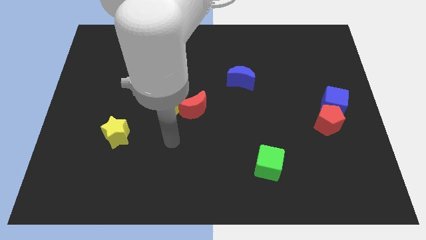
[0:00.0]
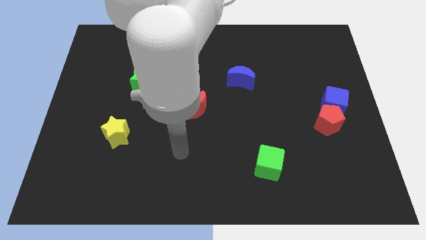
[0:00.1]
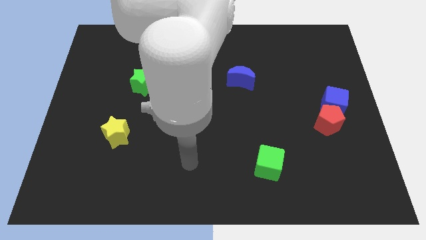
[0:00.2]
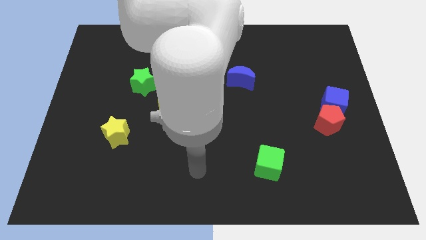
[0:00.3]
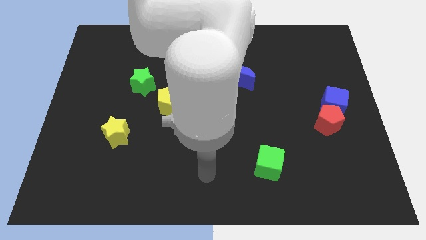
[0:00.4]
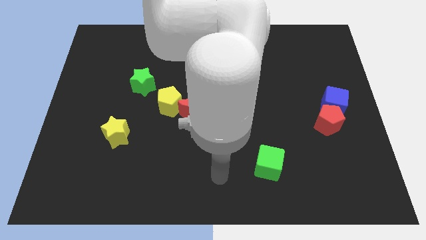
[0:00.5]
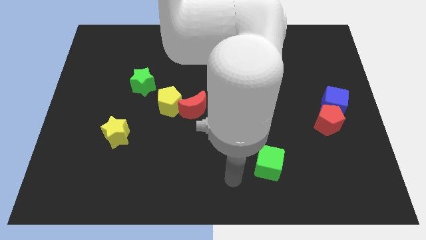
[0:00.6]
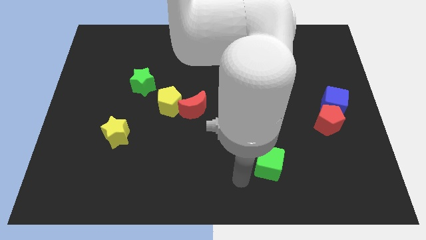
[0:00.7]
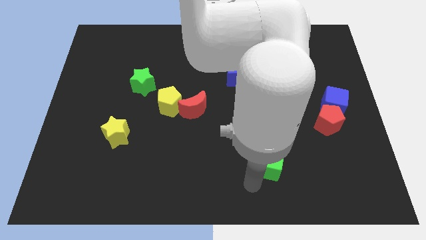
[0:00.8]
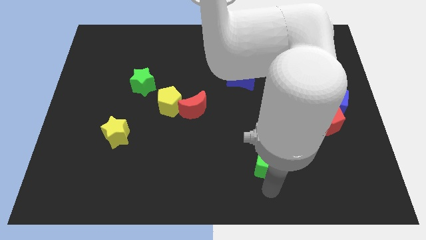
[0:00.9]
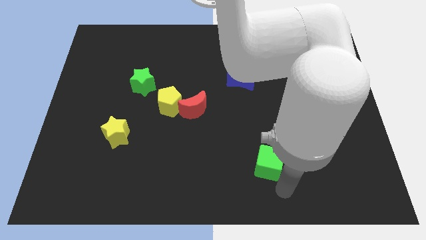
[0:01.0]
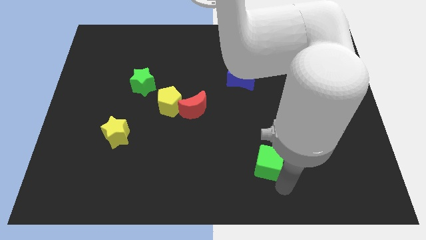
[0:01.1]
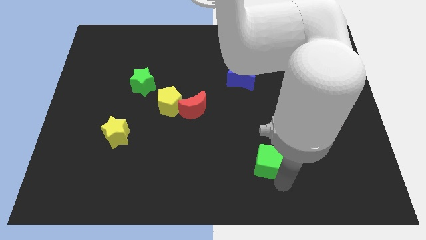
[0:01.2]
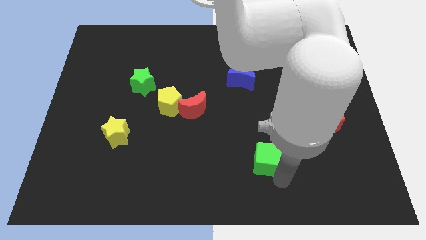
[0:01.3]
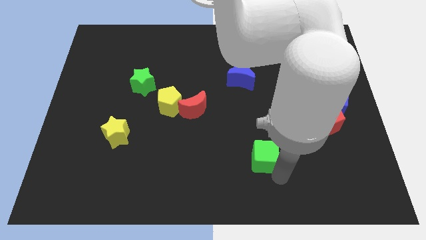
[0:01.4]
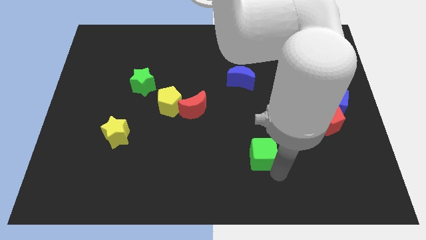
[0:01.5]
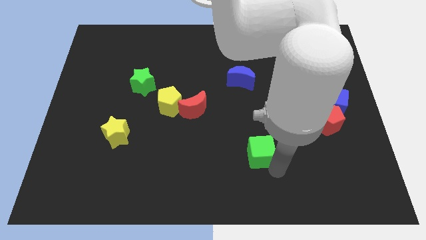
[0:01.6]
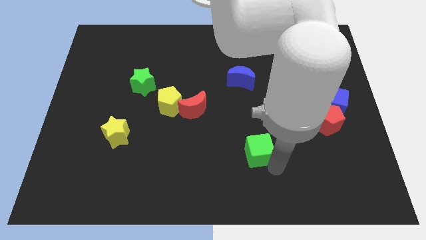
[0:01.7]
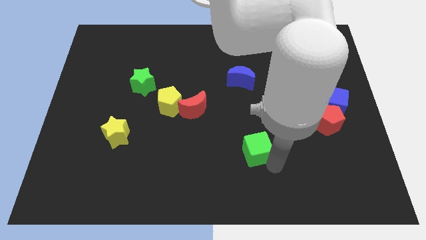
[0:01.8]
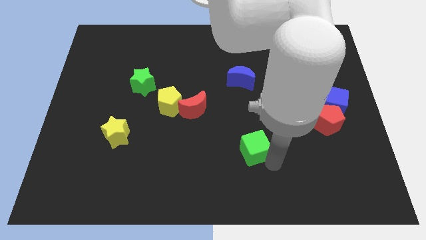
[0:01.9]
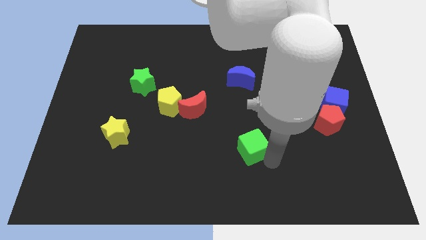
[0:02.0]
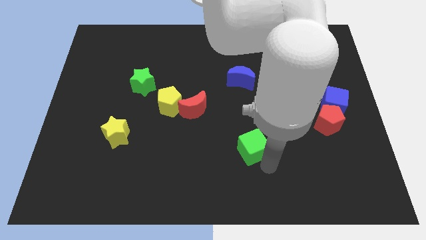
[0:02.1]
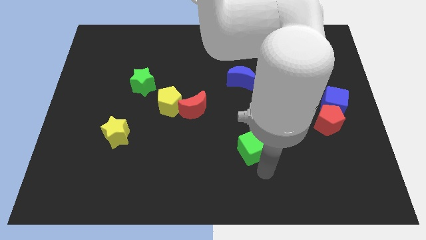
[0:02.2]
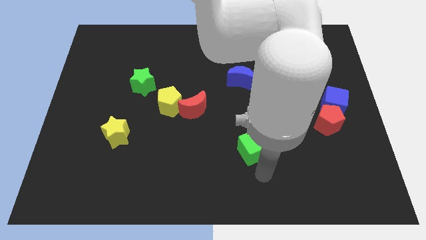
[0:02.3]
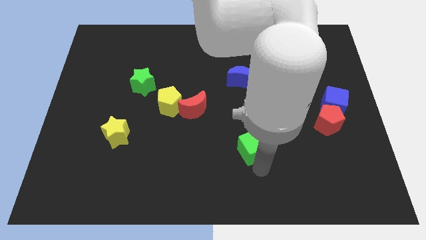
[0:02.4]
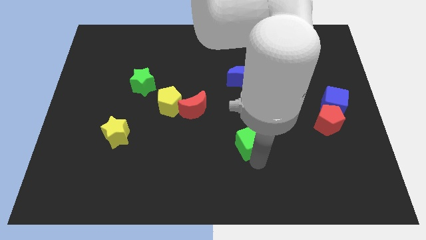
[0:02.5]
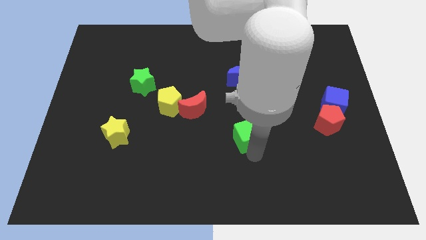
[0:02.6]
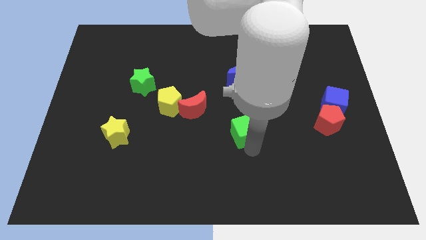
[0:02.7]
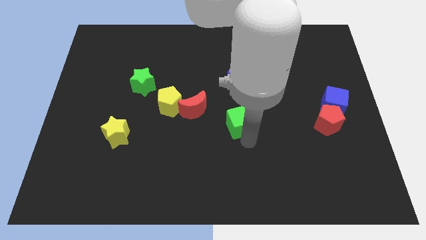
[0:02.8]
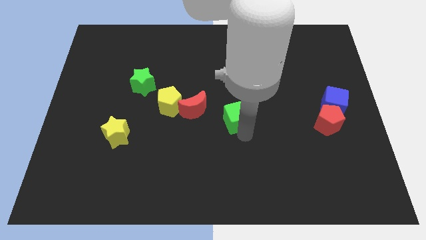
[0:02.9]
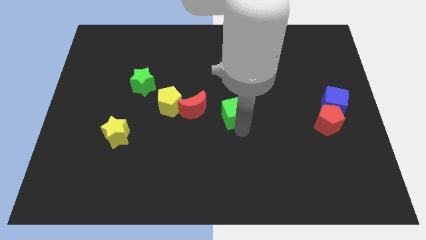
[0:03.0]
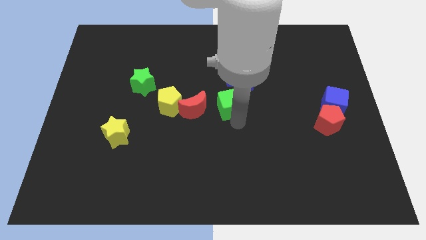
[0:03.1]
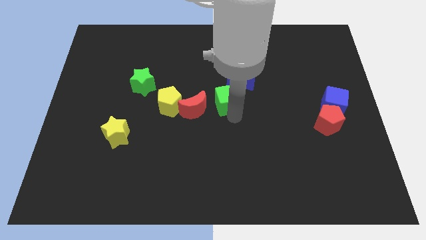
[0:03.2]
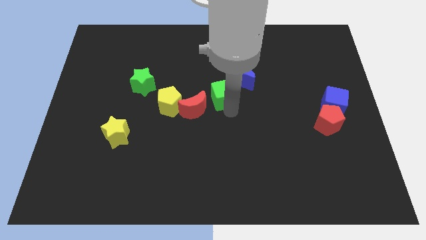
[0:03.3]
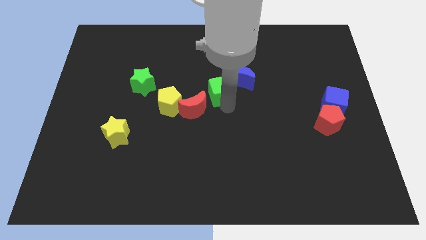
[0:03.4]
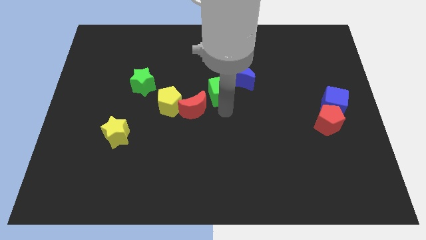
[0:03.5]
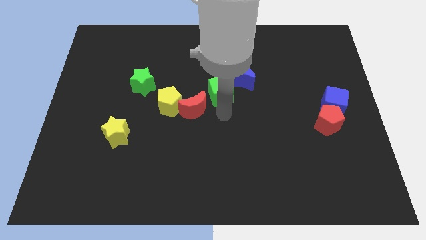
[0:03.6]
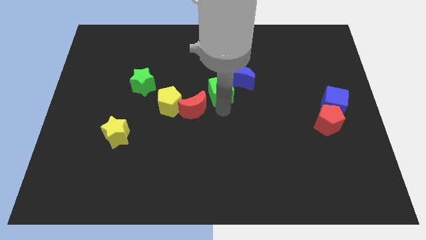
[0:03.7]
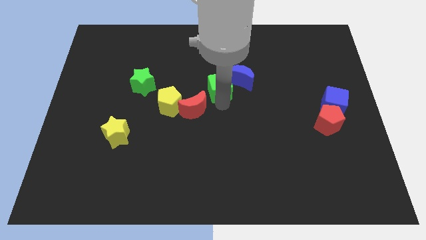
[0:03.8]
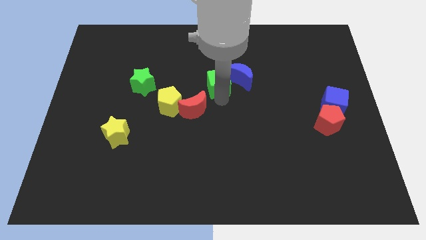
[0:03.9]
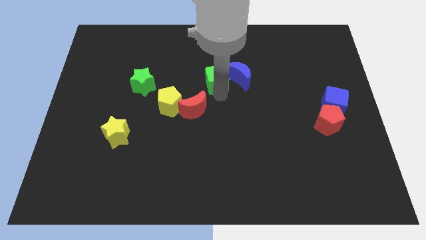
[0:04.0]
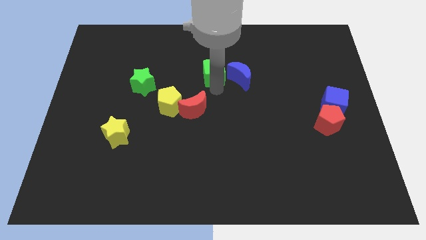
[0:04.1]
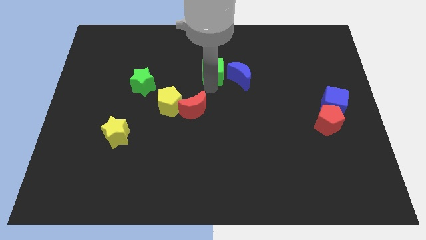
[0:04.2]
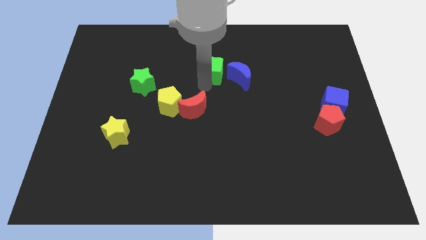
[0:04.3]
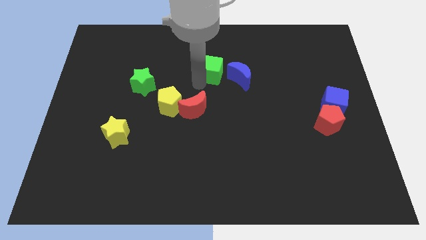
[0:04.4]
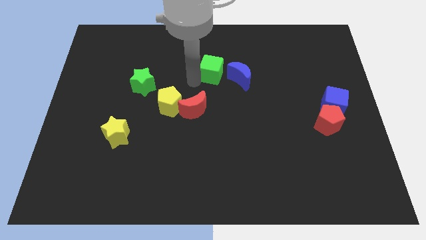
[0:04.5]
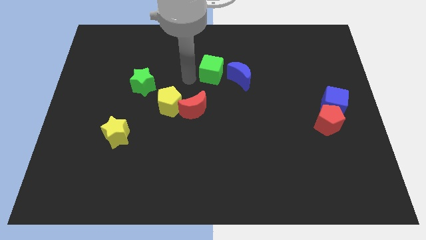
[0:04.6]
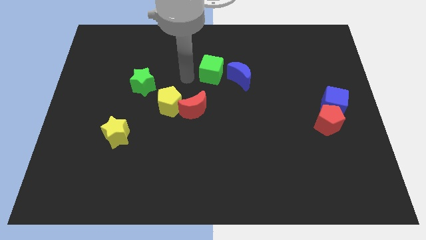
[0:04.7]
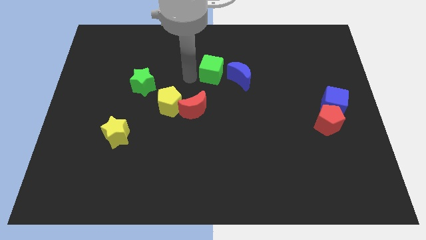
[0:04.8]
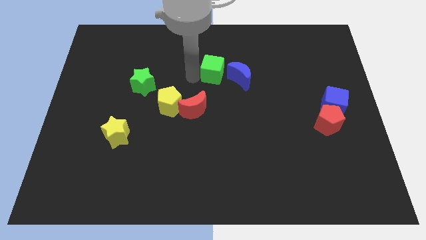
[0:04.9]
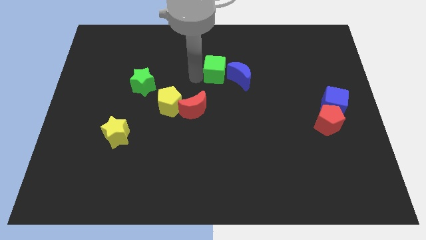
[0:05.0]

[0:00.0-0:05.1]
move the green cube upwards

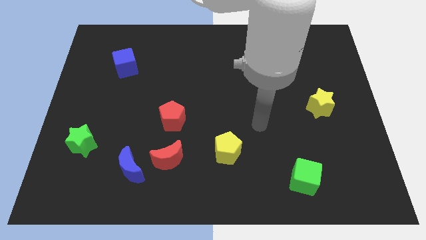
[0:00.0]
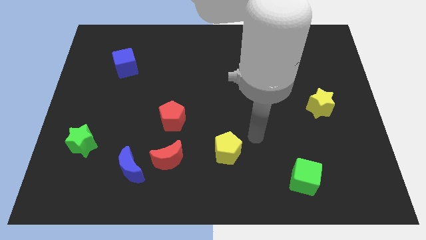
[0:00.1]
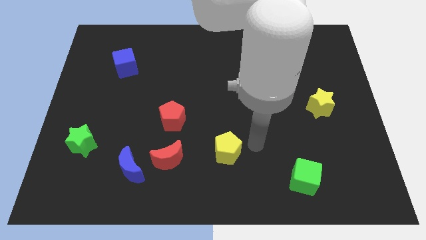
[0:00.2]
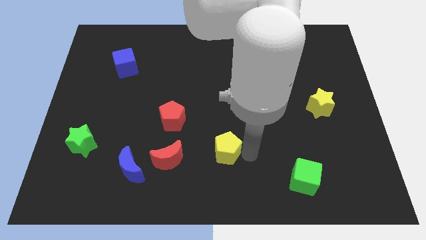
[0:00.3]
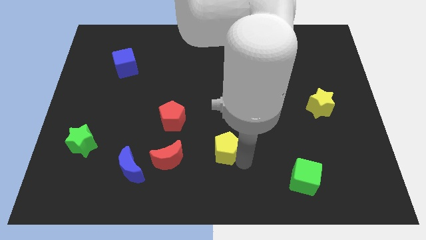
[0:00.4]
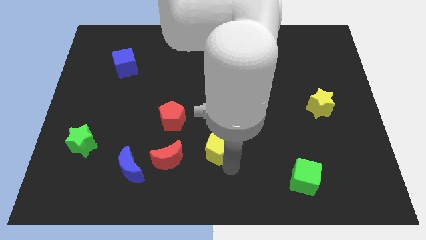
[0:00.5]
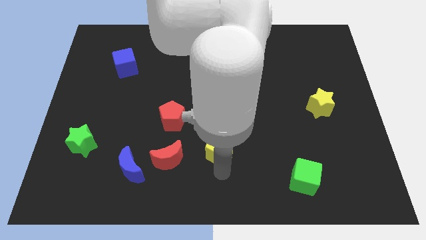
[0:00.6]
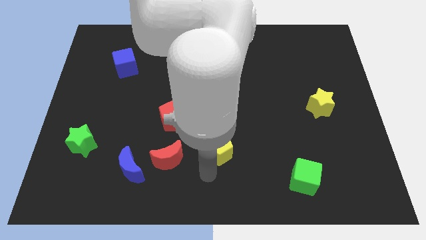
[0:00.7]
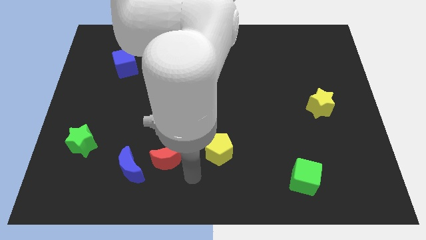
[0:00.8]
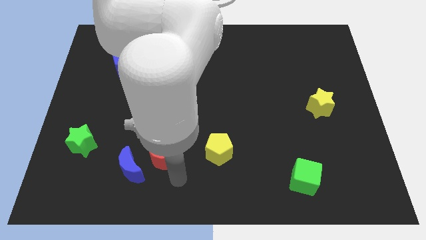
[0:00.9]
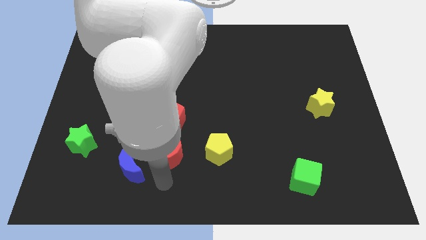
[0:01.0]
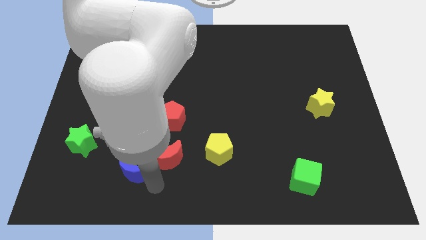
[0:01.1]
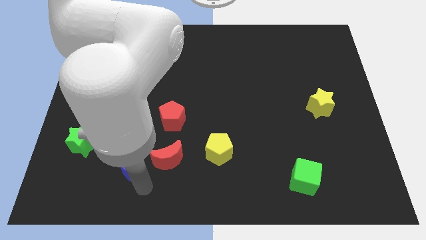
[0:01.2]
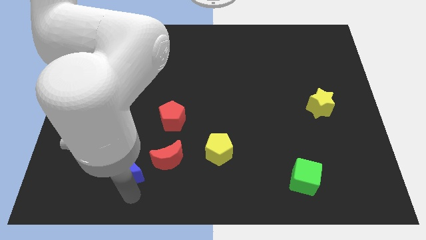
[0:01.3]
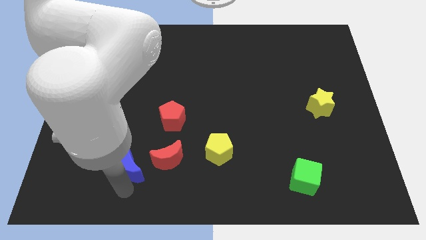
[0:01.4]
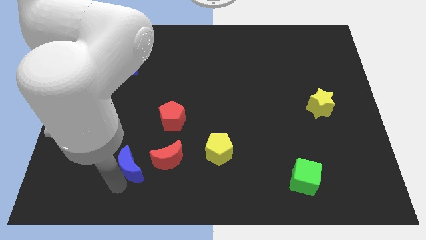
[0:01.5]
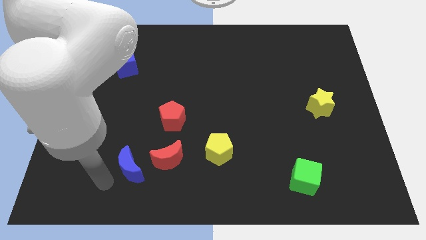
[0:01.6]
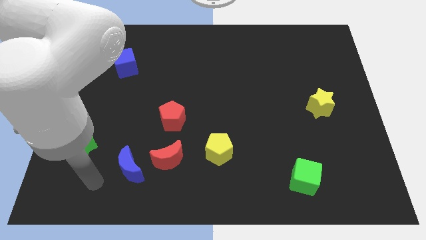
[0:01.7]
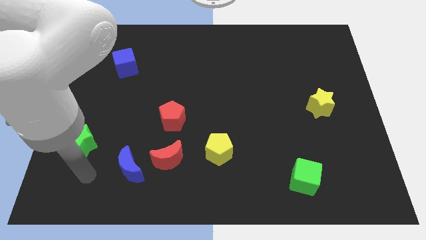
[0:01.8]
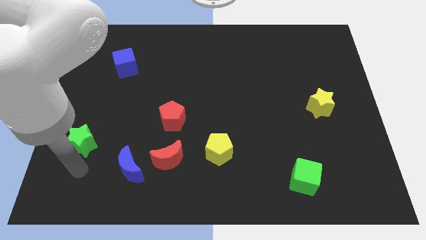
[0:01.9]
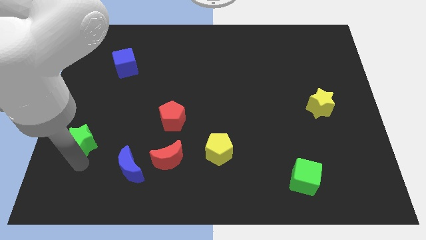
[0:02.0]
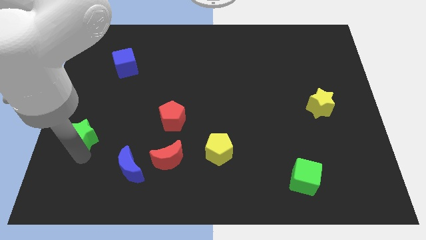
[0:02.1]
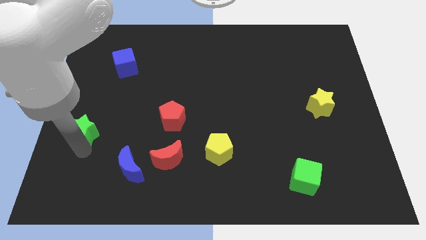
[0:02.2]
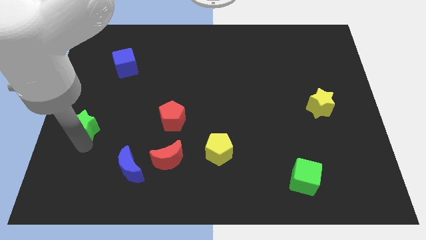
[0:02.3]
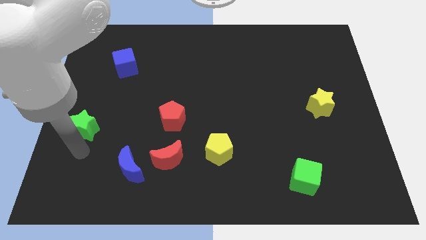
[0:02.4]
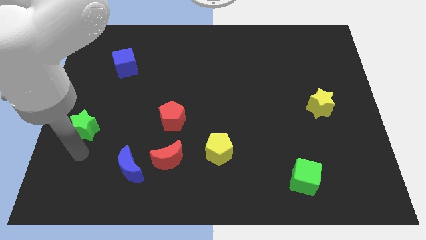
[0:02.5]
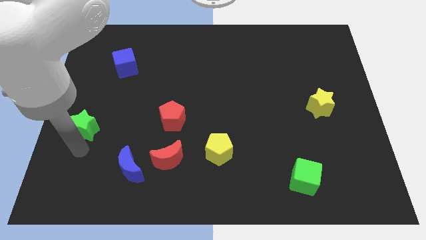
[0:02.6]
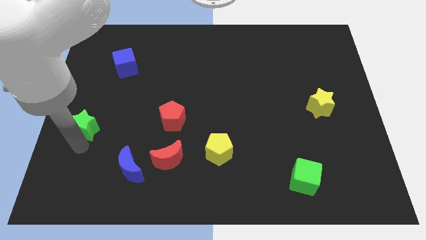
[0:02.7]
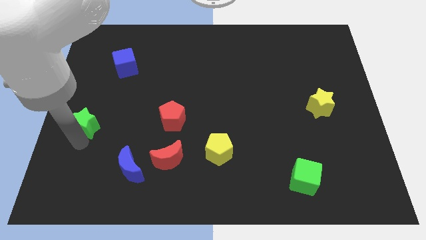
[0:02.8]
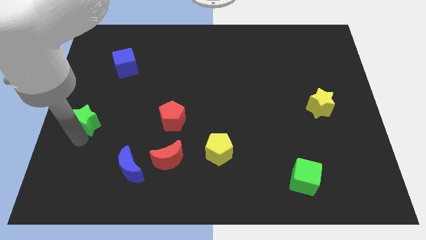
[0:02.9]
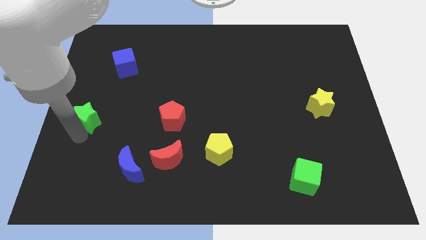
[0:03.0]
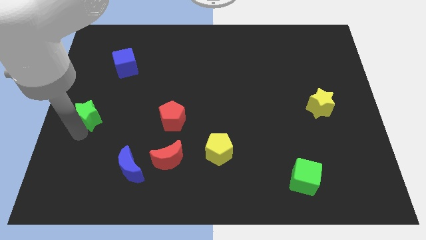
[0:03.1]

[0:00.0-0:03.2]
push the green star up a little bit
